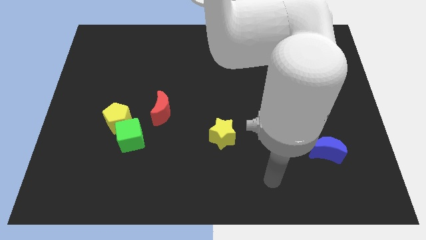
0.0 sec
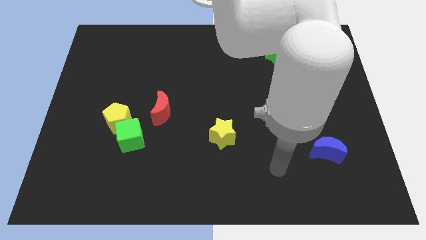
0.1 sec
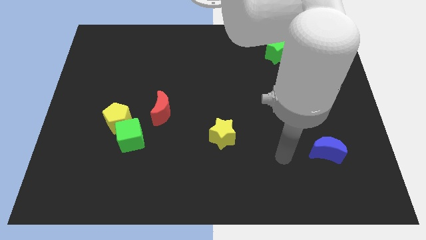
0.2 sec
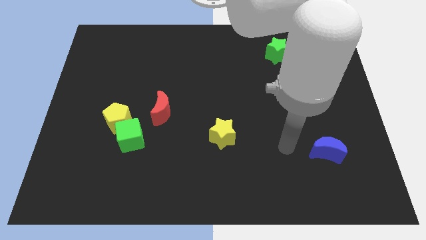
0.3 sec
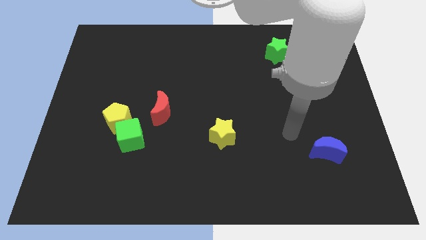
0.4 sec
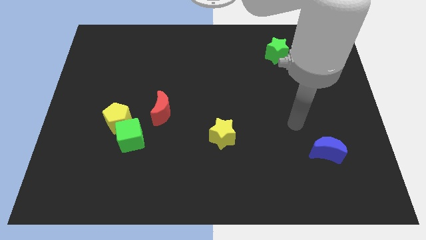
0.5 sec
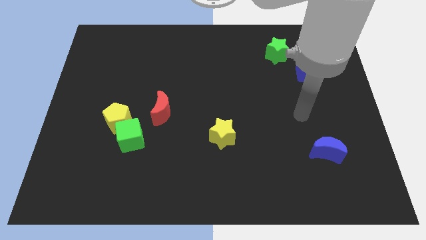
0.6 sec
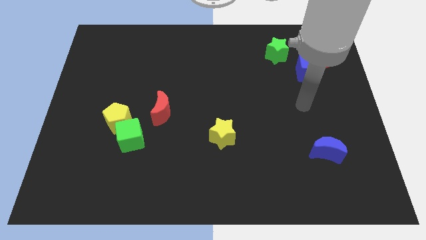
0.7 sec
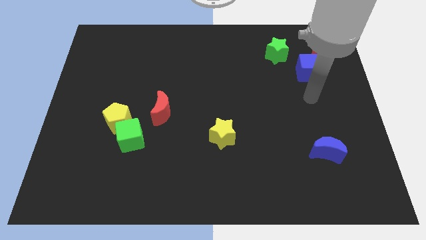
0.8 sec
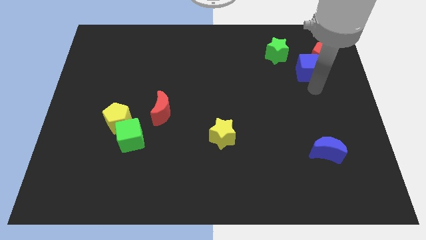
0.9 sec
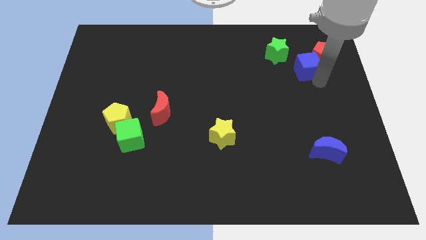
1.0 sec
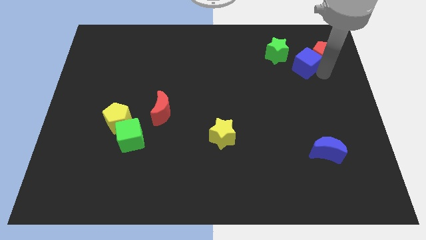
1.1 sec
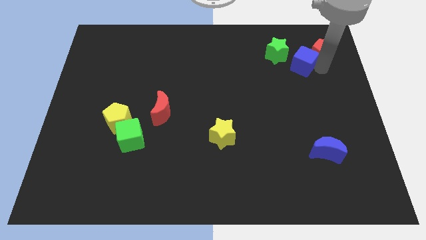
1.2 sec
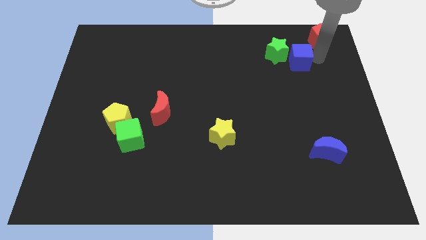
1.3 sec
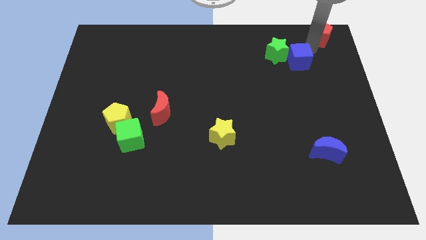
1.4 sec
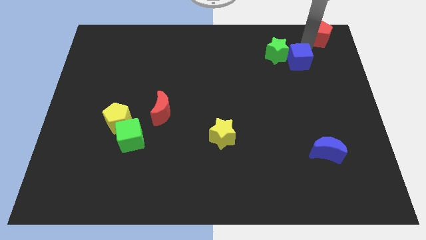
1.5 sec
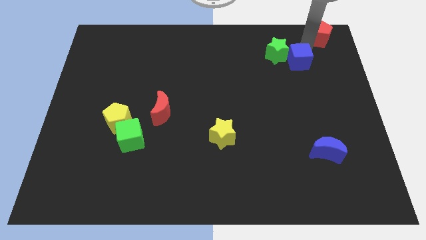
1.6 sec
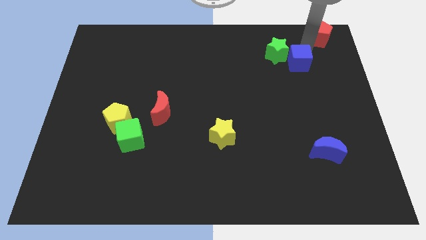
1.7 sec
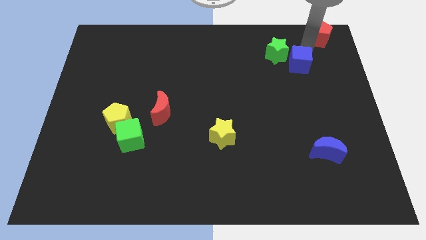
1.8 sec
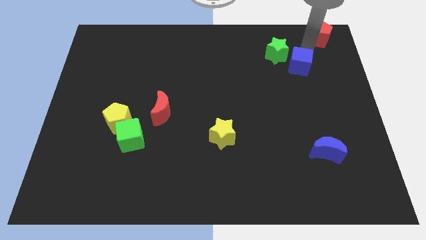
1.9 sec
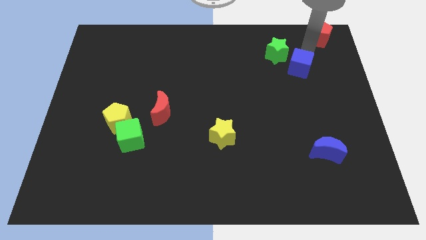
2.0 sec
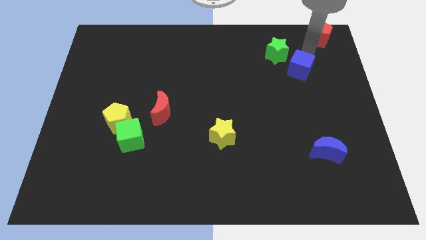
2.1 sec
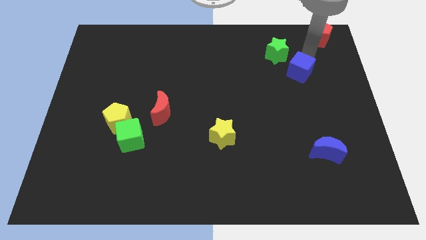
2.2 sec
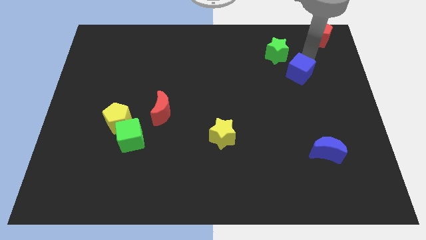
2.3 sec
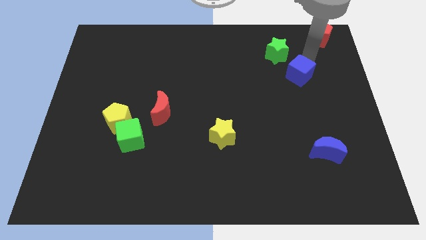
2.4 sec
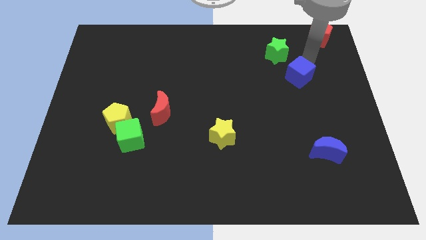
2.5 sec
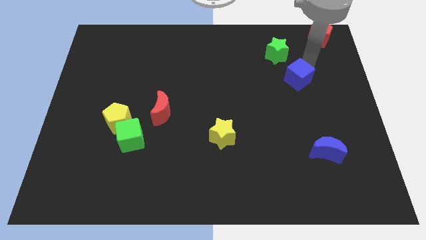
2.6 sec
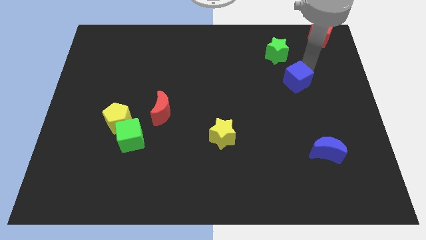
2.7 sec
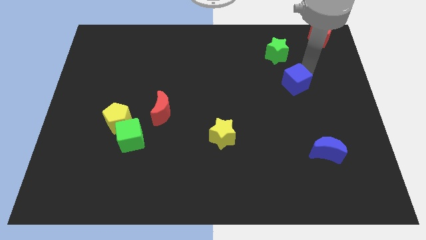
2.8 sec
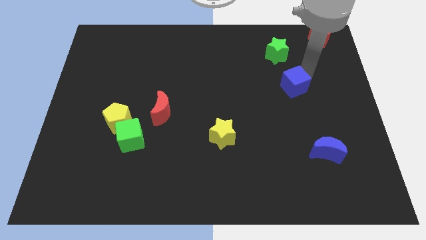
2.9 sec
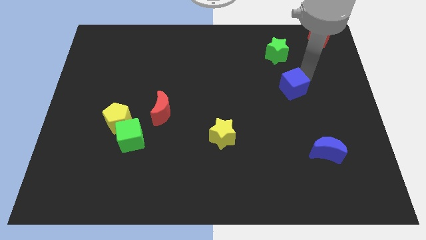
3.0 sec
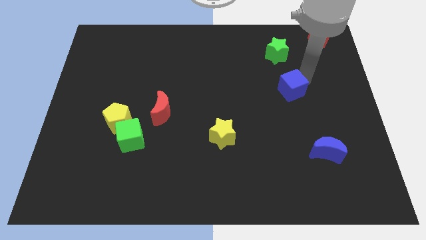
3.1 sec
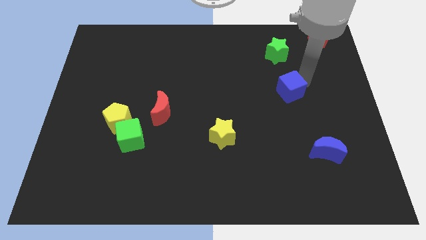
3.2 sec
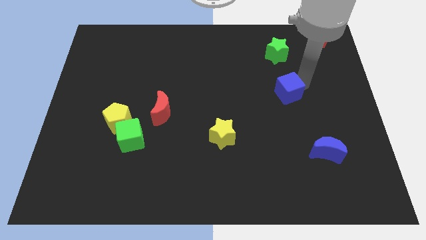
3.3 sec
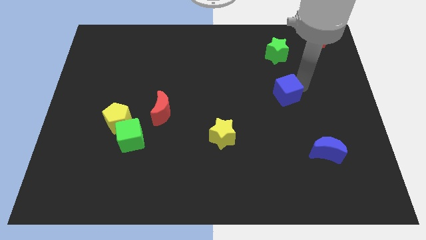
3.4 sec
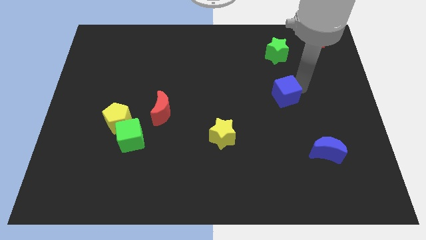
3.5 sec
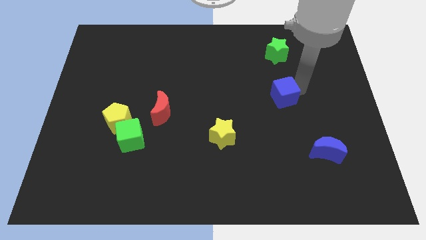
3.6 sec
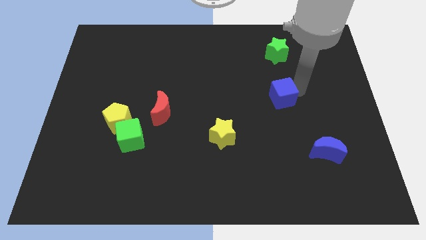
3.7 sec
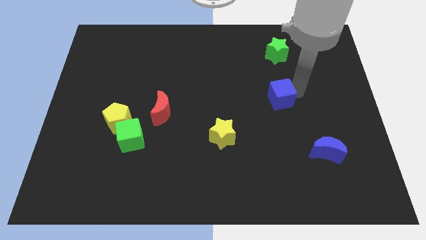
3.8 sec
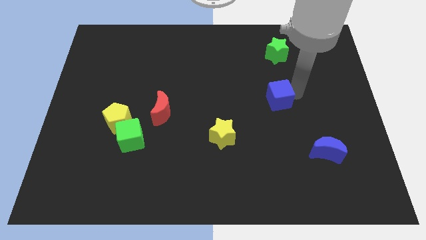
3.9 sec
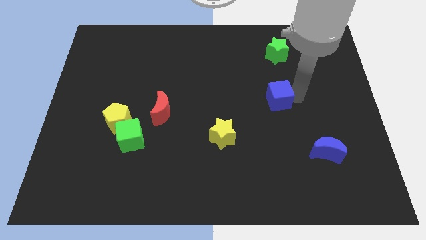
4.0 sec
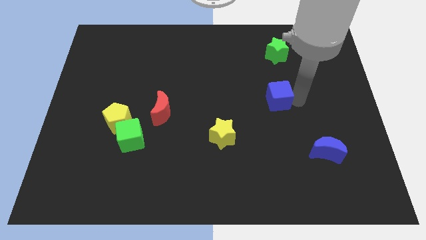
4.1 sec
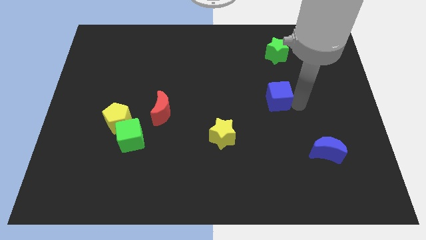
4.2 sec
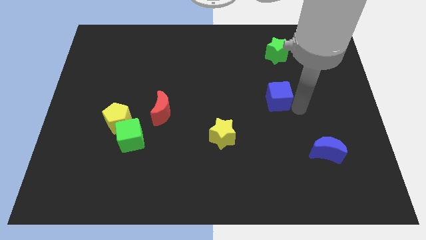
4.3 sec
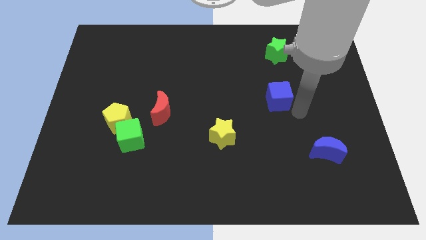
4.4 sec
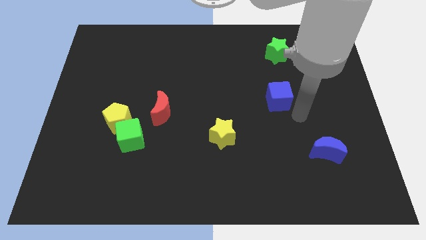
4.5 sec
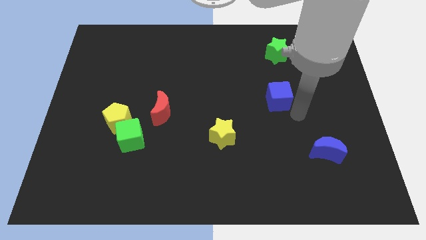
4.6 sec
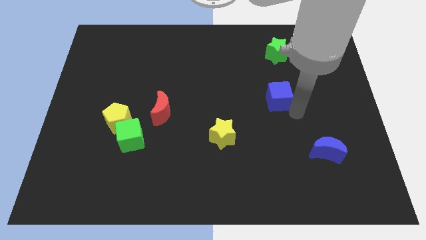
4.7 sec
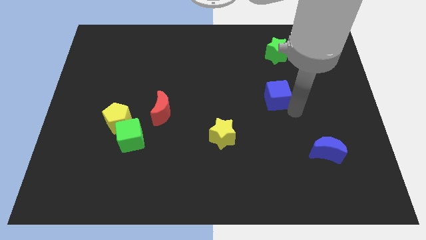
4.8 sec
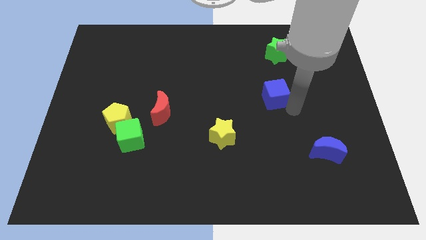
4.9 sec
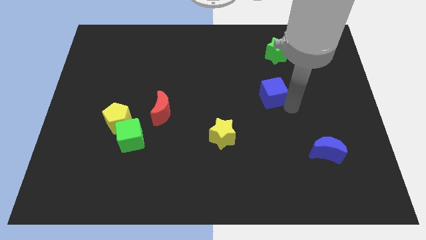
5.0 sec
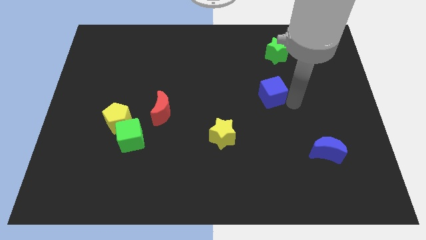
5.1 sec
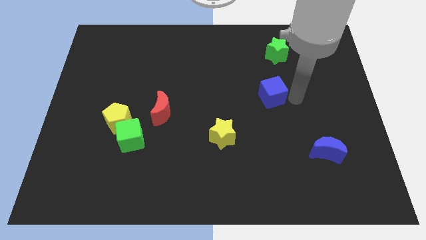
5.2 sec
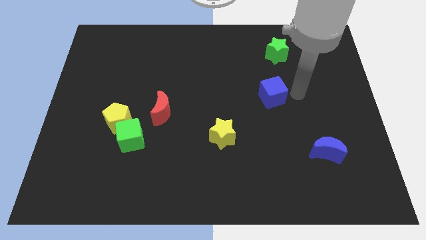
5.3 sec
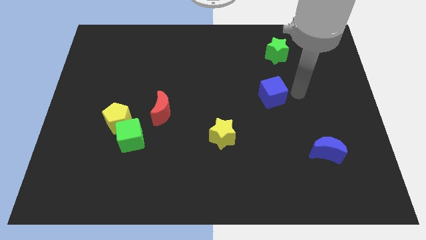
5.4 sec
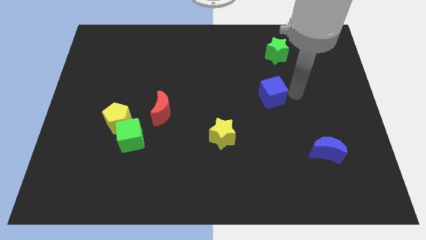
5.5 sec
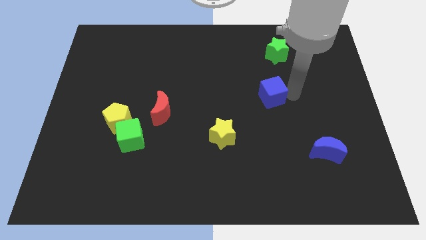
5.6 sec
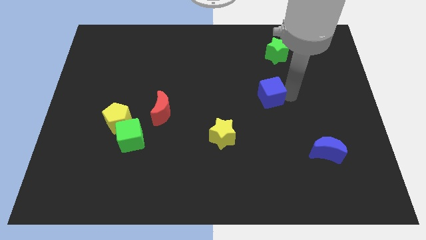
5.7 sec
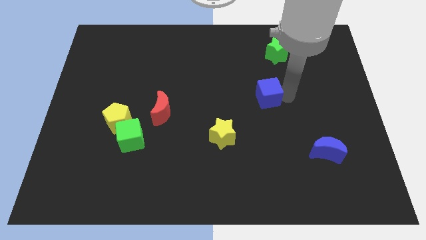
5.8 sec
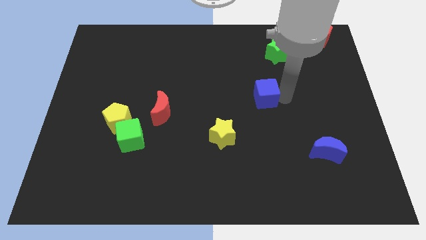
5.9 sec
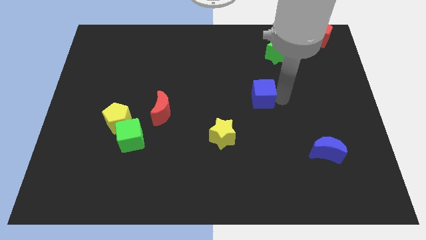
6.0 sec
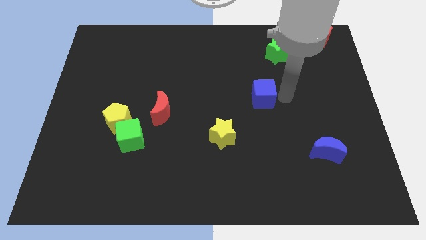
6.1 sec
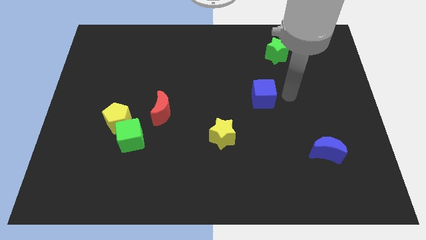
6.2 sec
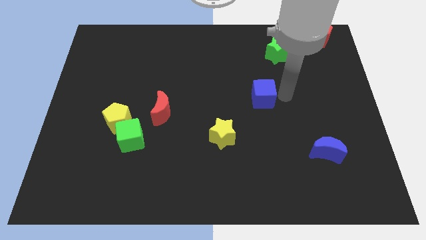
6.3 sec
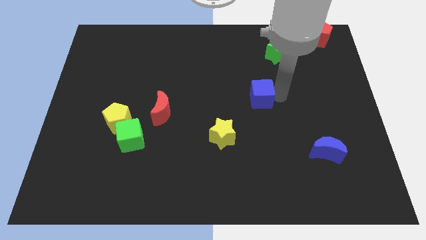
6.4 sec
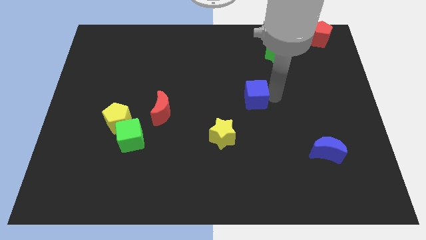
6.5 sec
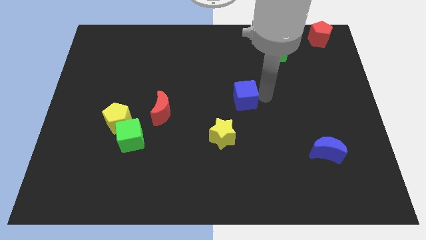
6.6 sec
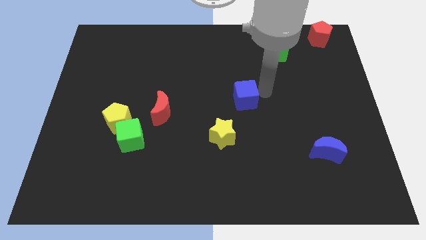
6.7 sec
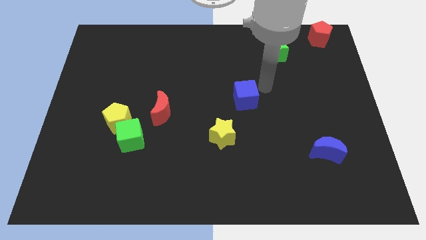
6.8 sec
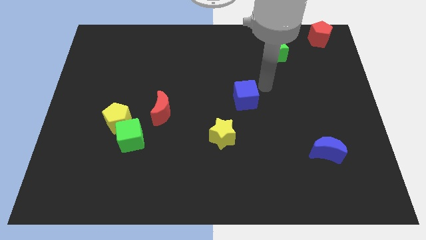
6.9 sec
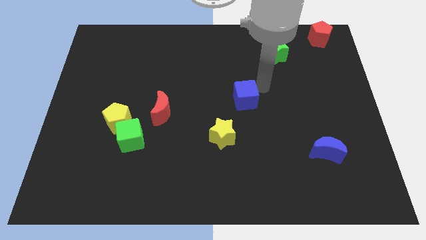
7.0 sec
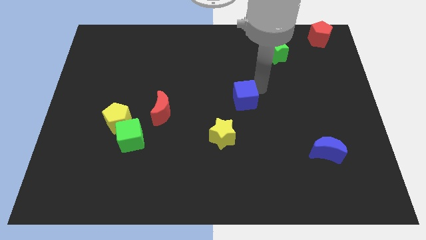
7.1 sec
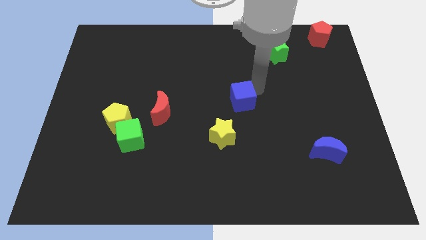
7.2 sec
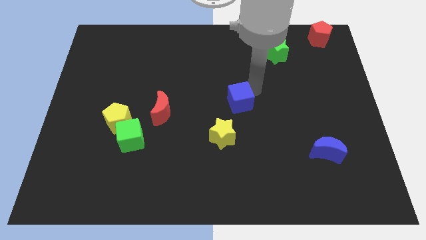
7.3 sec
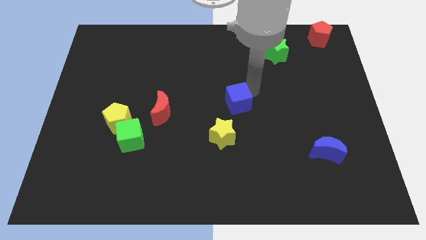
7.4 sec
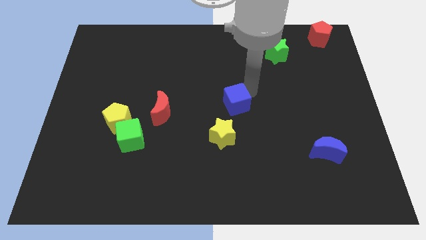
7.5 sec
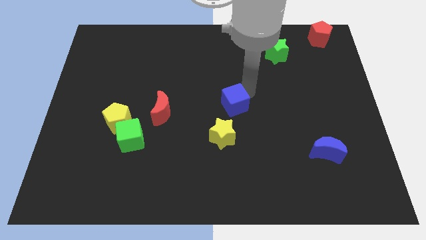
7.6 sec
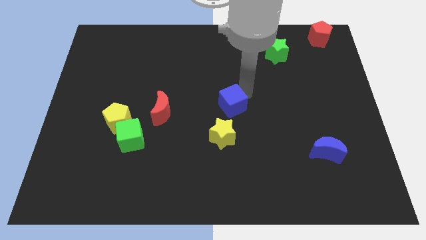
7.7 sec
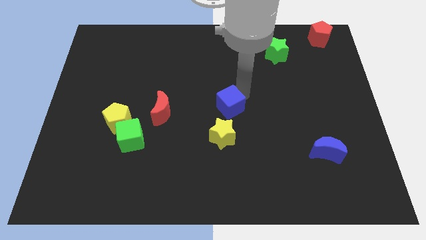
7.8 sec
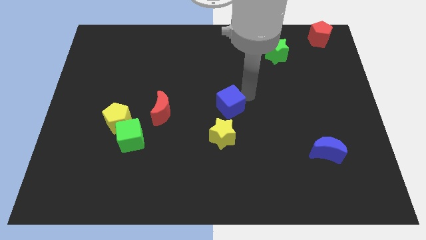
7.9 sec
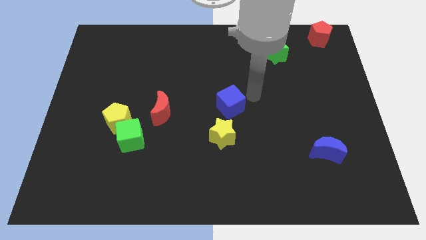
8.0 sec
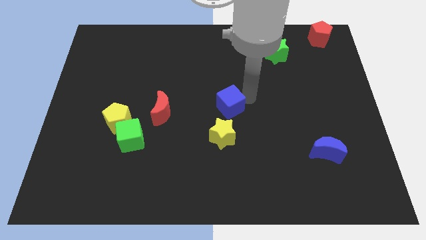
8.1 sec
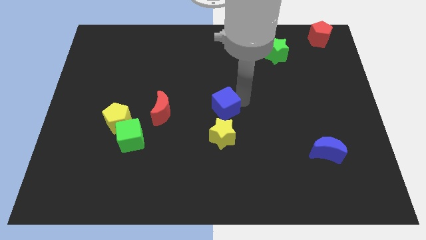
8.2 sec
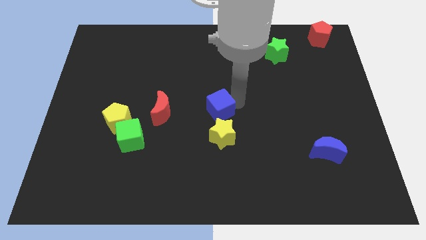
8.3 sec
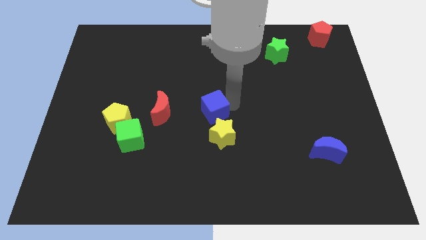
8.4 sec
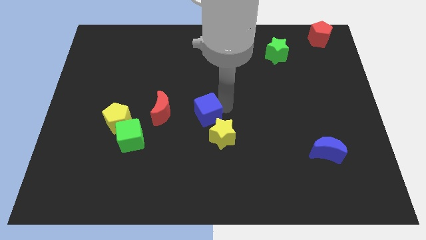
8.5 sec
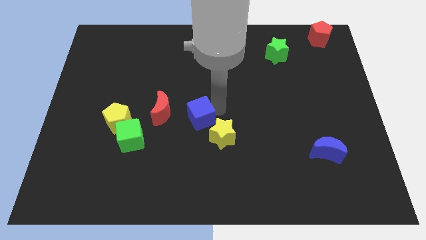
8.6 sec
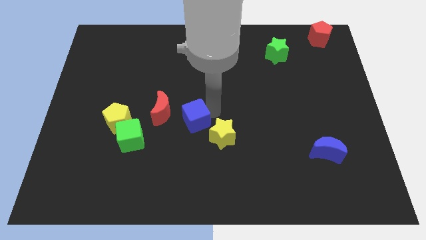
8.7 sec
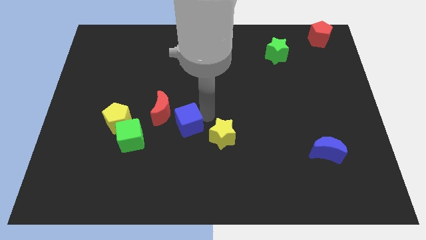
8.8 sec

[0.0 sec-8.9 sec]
put the blue cube just right of the yellow pentagon
